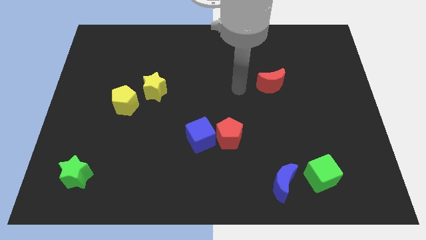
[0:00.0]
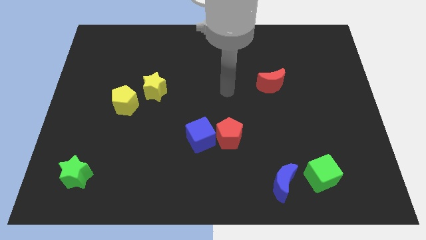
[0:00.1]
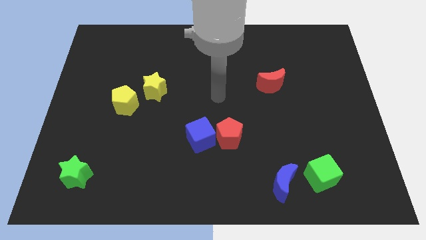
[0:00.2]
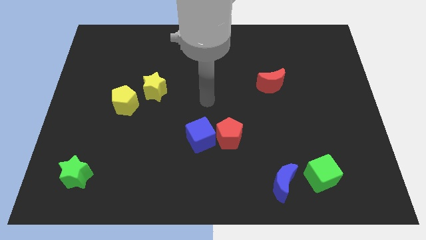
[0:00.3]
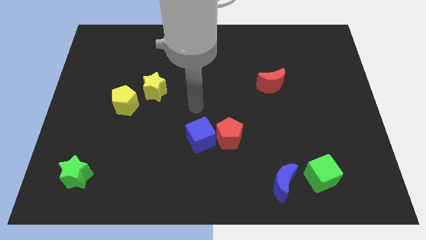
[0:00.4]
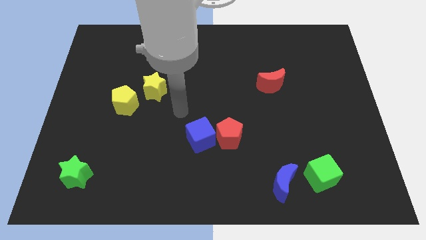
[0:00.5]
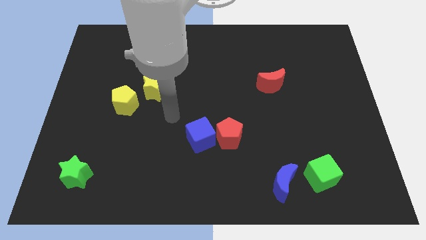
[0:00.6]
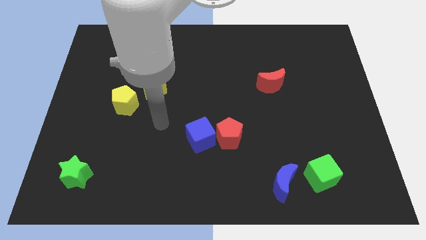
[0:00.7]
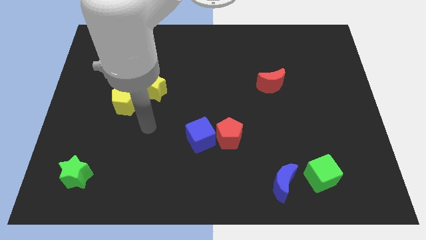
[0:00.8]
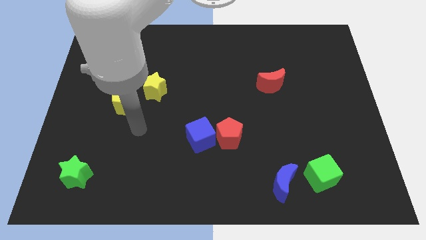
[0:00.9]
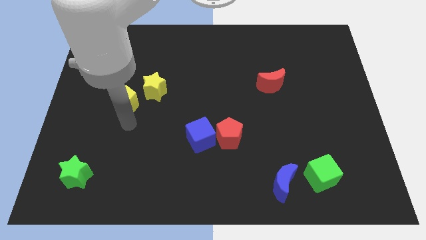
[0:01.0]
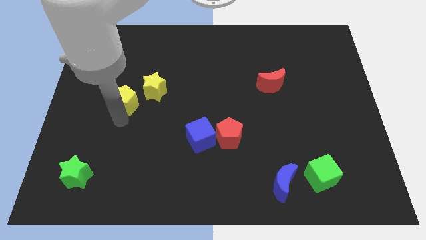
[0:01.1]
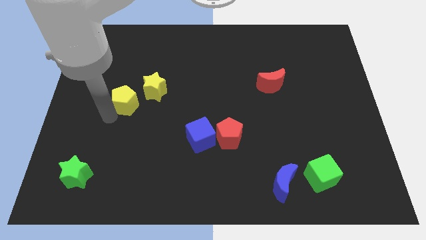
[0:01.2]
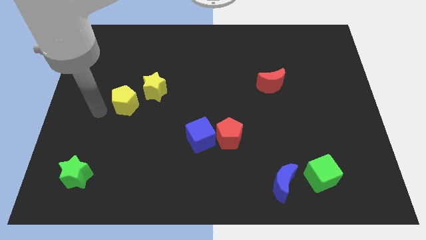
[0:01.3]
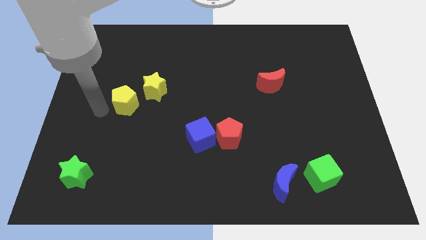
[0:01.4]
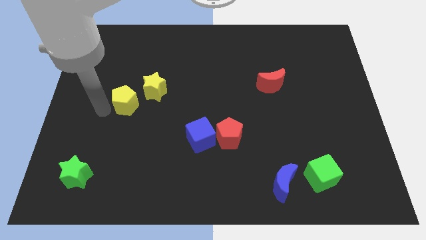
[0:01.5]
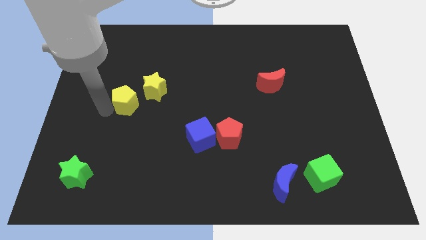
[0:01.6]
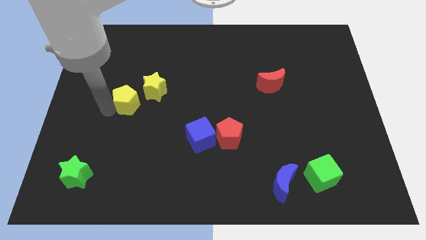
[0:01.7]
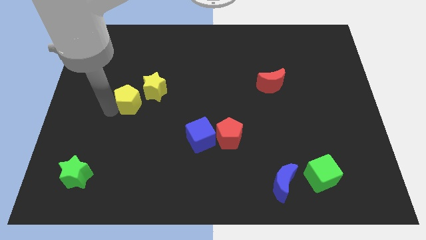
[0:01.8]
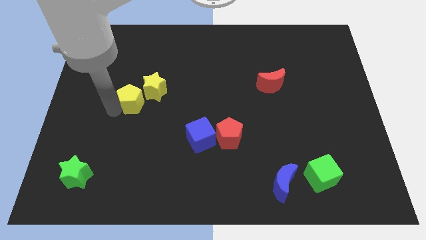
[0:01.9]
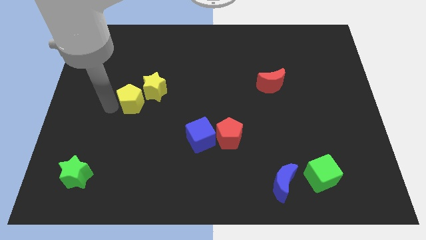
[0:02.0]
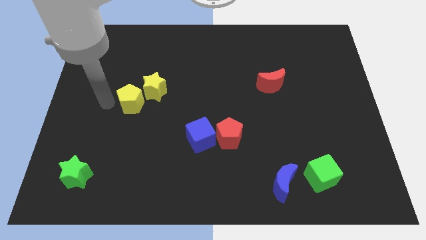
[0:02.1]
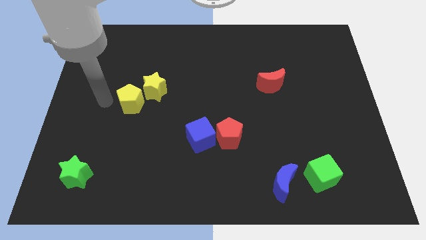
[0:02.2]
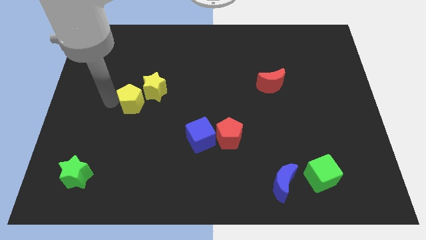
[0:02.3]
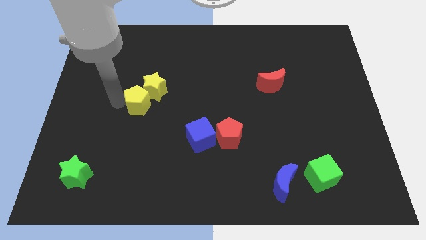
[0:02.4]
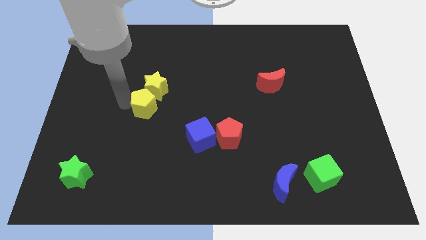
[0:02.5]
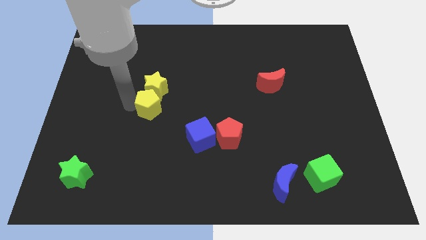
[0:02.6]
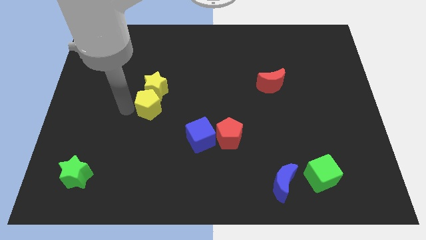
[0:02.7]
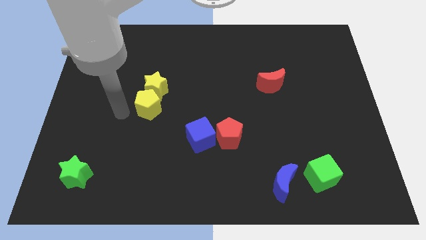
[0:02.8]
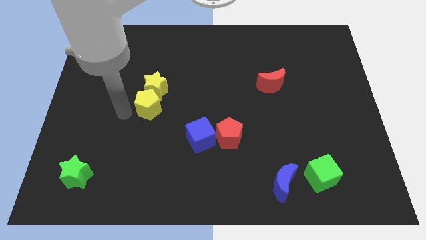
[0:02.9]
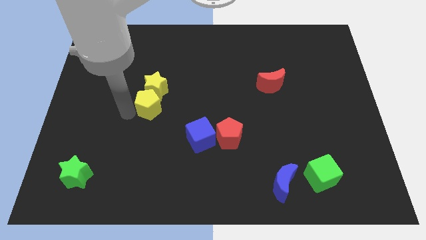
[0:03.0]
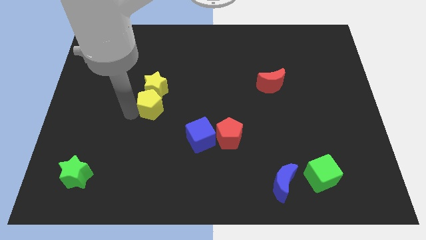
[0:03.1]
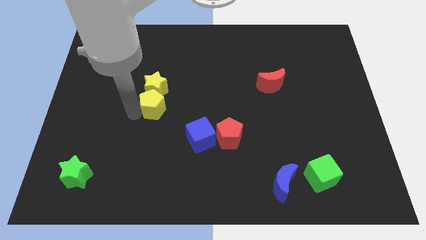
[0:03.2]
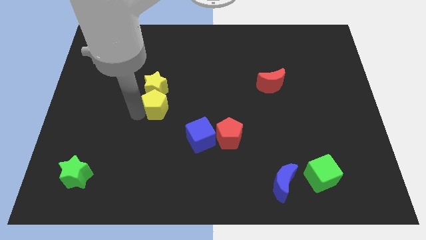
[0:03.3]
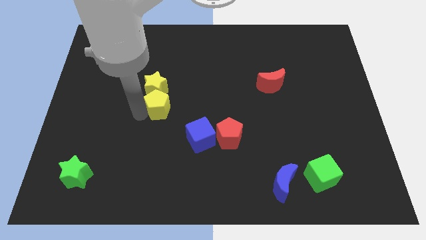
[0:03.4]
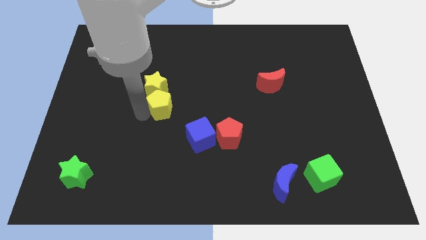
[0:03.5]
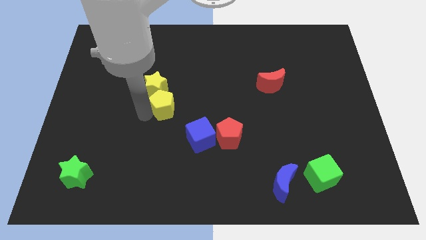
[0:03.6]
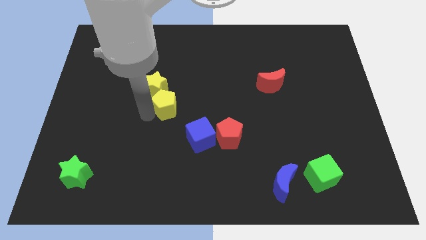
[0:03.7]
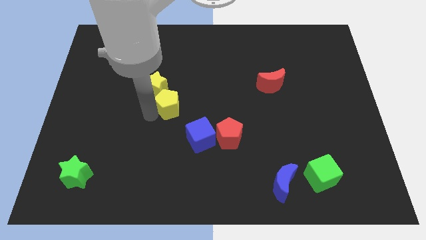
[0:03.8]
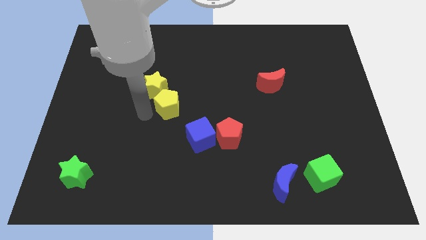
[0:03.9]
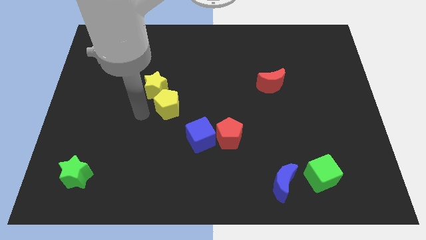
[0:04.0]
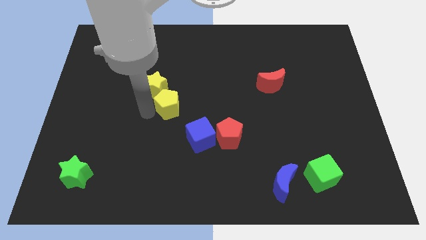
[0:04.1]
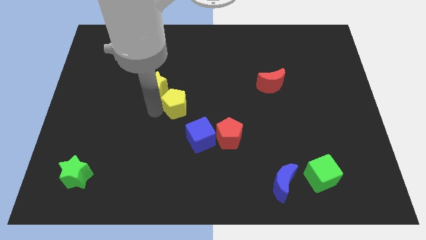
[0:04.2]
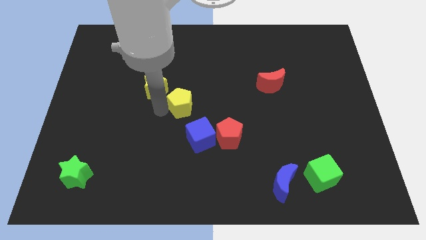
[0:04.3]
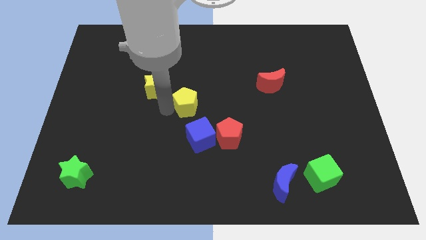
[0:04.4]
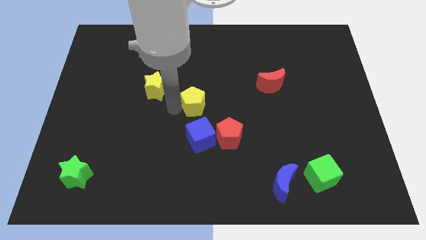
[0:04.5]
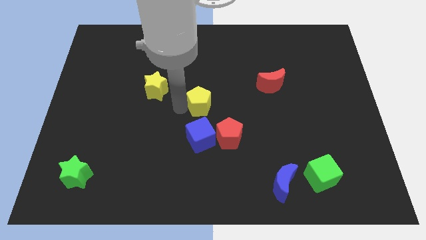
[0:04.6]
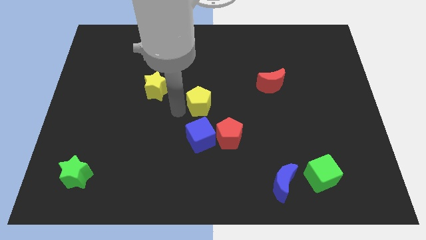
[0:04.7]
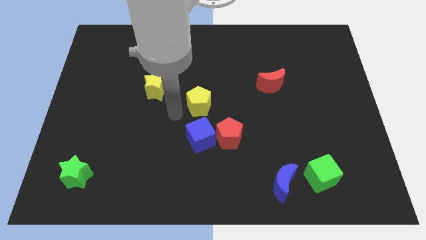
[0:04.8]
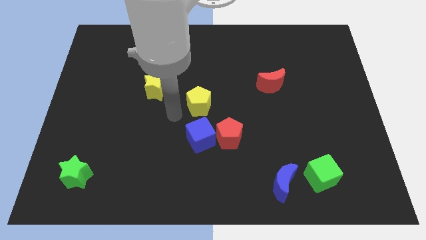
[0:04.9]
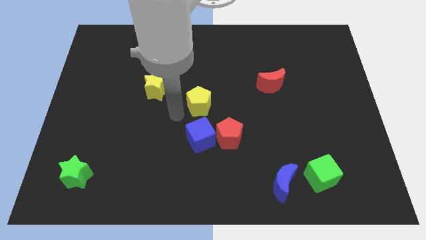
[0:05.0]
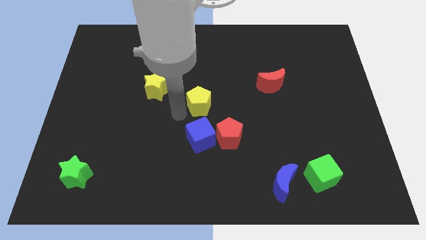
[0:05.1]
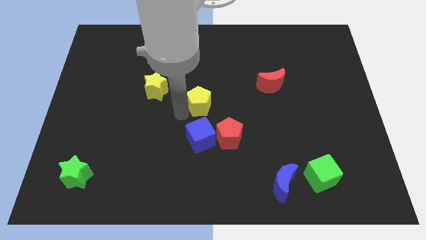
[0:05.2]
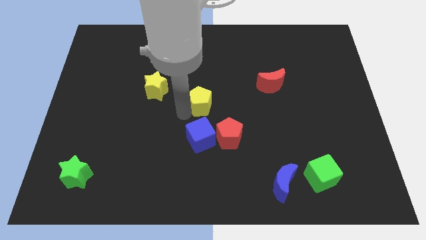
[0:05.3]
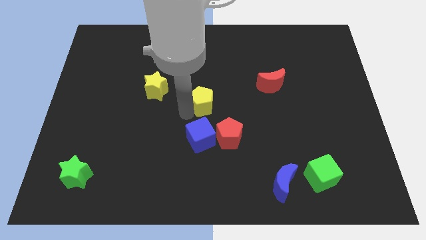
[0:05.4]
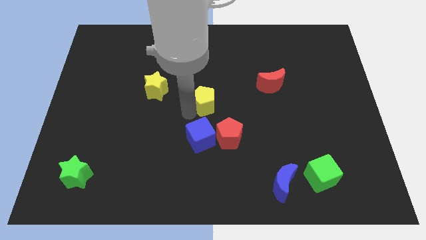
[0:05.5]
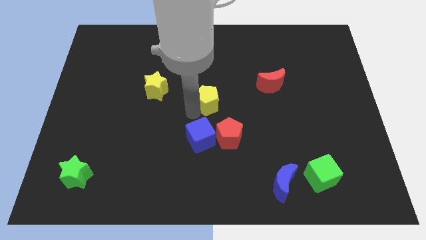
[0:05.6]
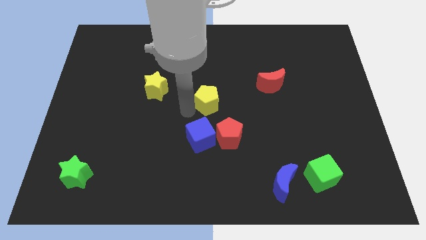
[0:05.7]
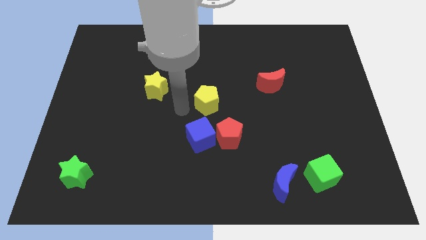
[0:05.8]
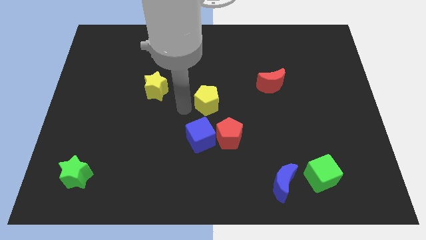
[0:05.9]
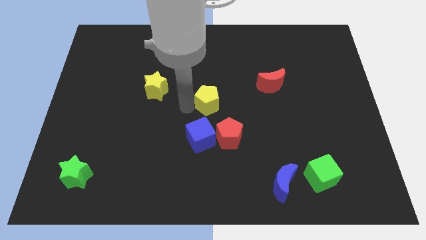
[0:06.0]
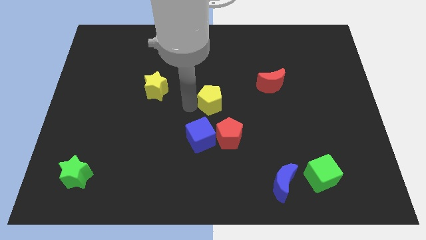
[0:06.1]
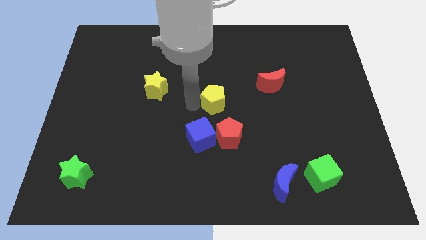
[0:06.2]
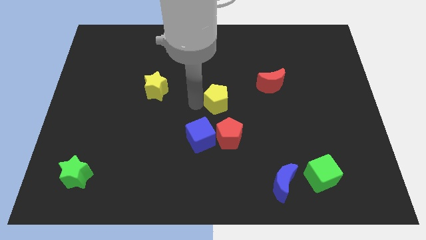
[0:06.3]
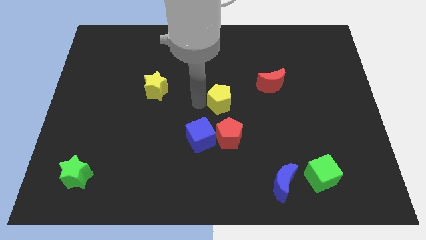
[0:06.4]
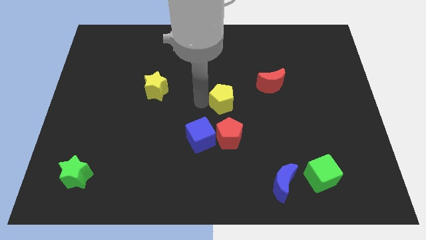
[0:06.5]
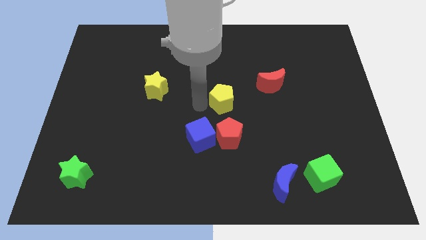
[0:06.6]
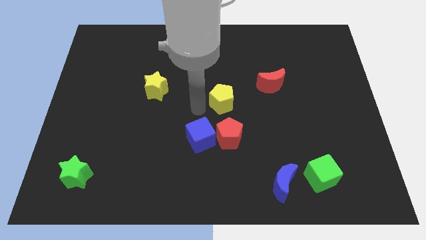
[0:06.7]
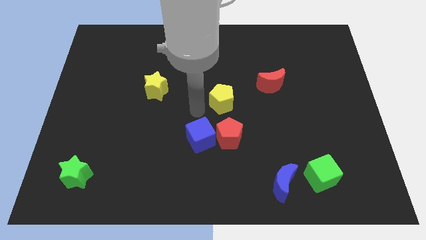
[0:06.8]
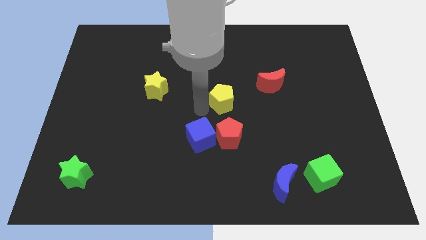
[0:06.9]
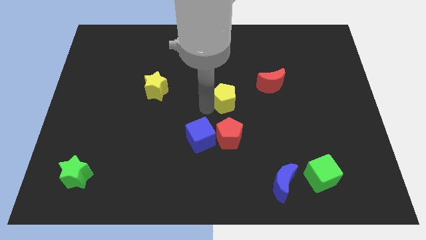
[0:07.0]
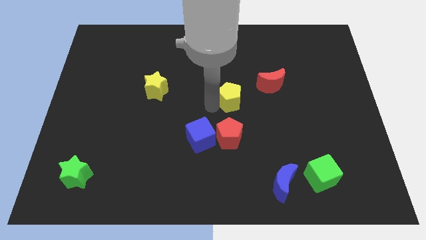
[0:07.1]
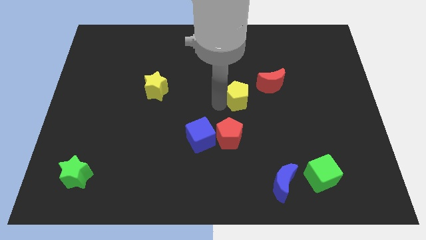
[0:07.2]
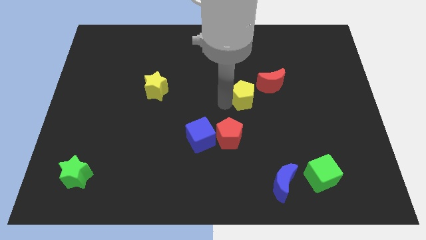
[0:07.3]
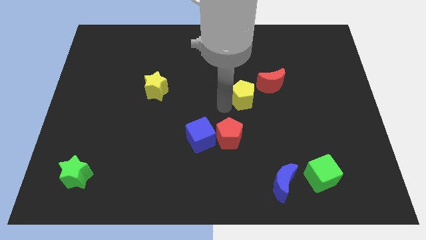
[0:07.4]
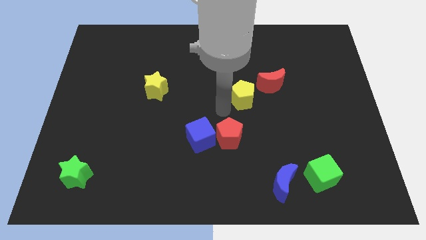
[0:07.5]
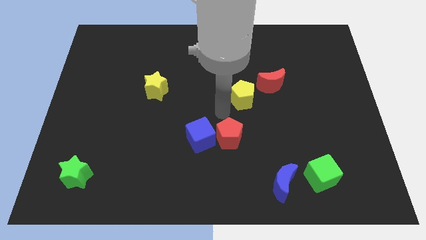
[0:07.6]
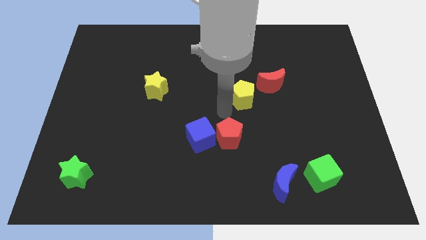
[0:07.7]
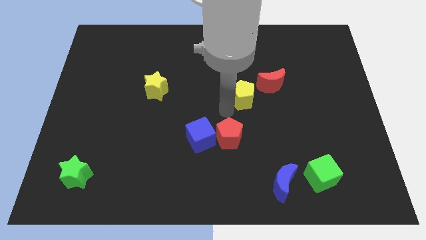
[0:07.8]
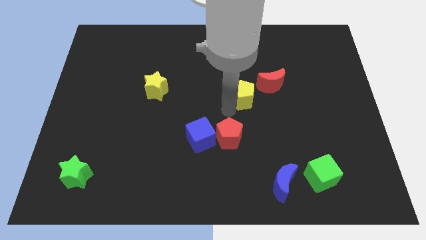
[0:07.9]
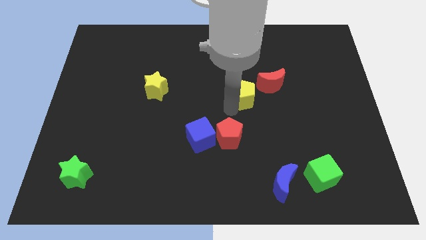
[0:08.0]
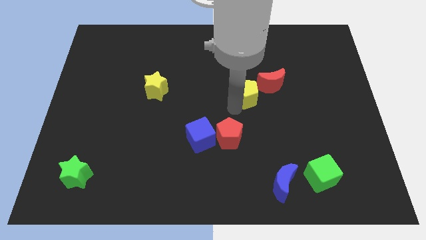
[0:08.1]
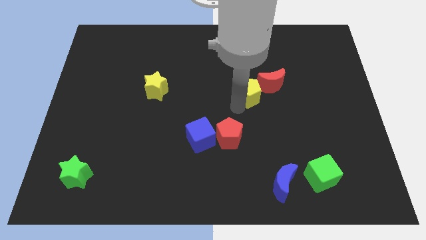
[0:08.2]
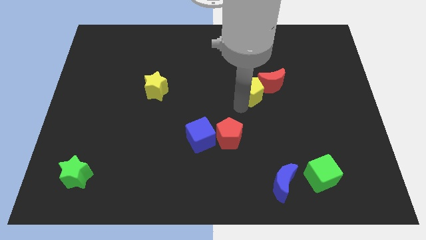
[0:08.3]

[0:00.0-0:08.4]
put the yellow pentagon next to the red moon
